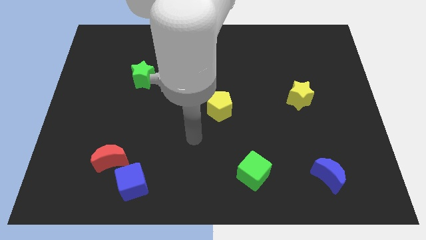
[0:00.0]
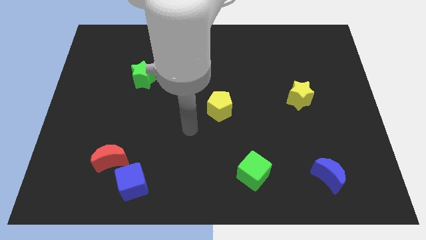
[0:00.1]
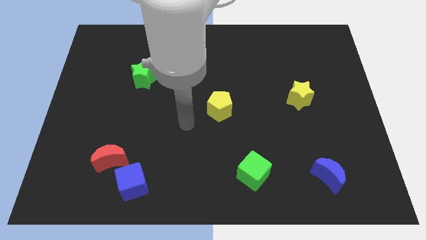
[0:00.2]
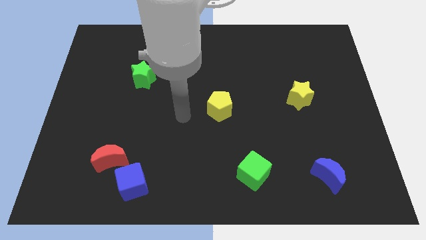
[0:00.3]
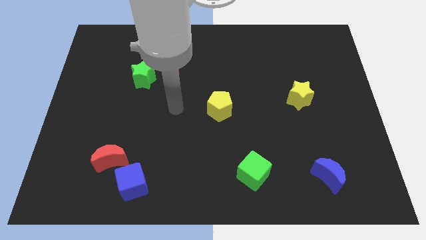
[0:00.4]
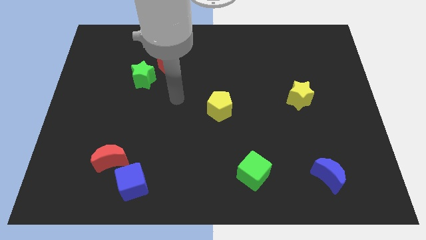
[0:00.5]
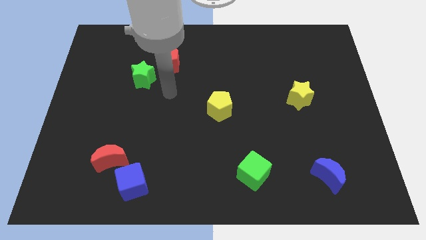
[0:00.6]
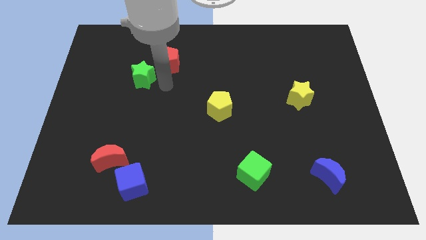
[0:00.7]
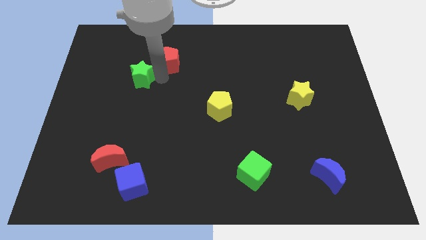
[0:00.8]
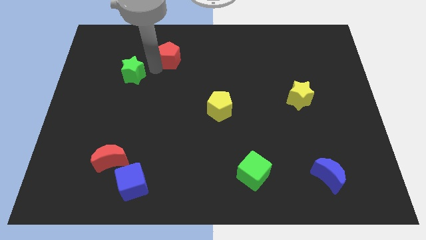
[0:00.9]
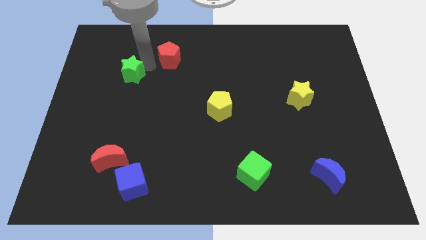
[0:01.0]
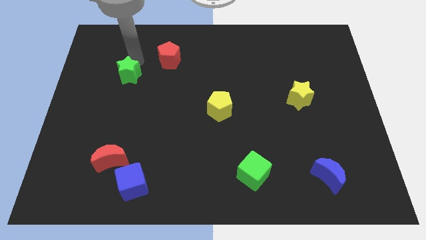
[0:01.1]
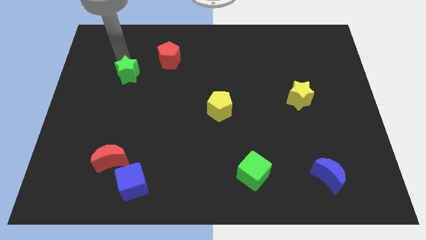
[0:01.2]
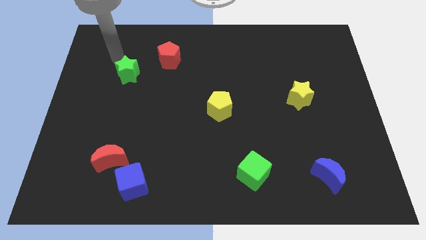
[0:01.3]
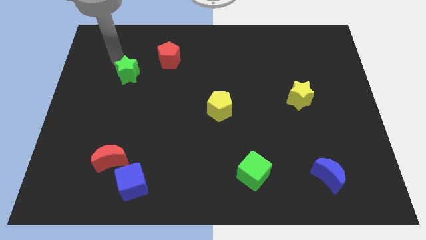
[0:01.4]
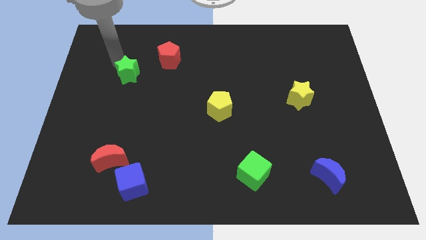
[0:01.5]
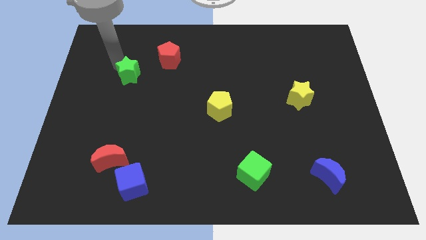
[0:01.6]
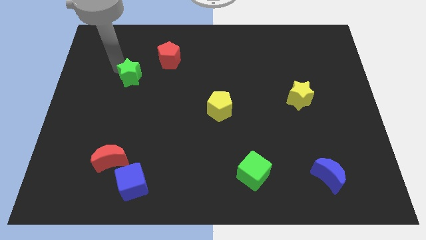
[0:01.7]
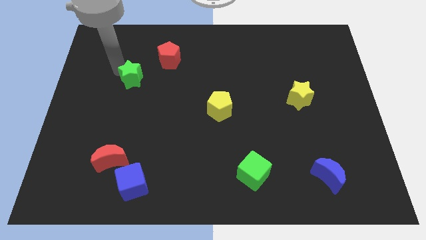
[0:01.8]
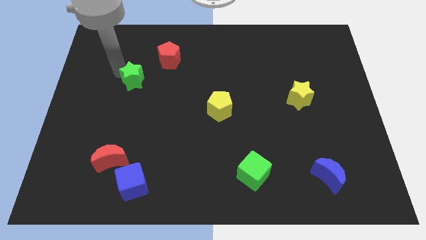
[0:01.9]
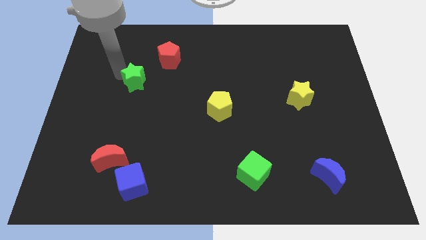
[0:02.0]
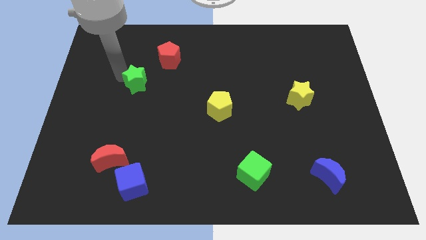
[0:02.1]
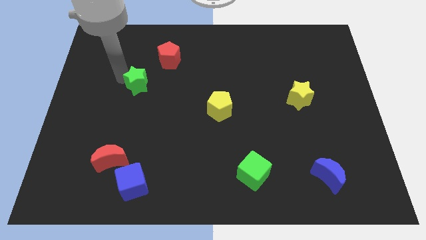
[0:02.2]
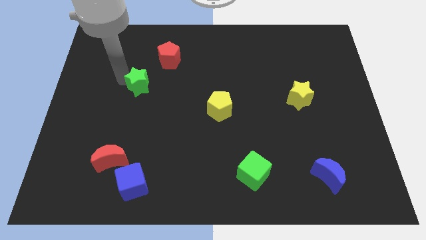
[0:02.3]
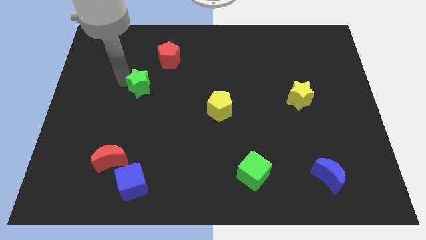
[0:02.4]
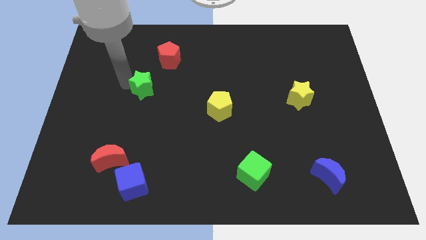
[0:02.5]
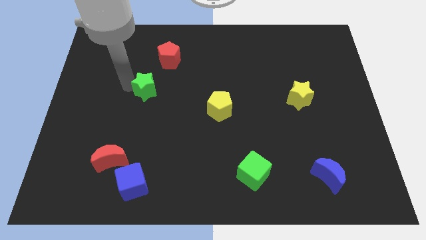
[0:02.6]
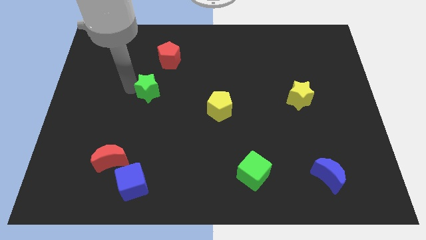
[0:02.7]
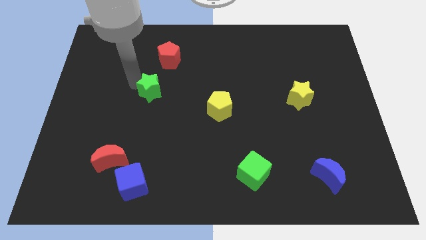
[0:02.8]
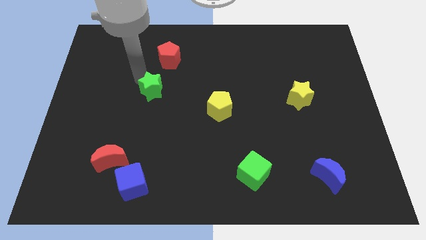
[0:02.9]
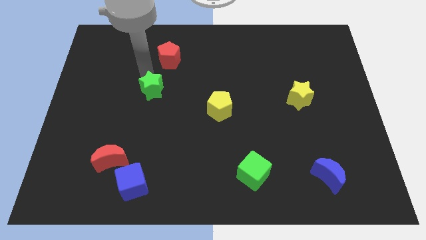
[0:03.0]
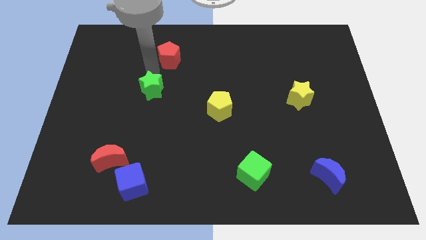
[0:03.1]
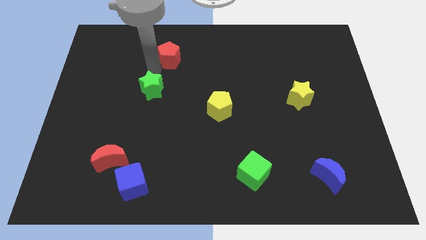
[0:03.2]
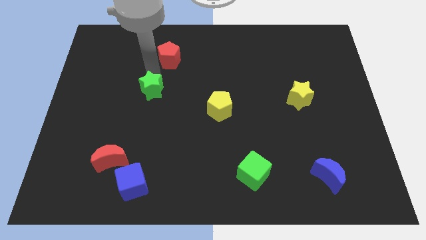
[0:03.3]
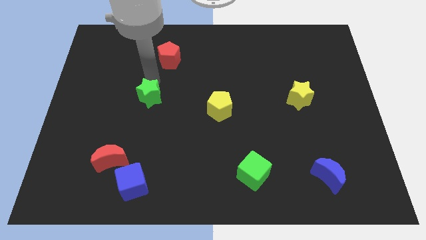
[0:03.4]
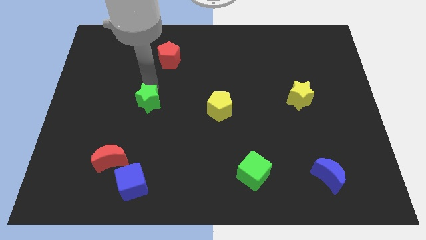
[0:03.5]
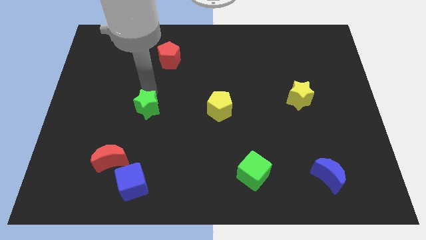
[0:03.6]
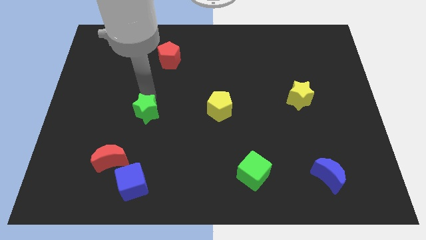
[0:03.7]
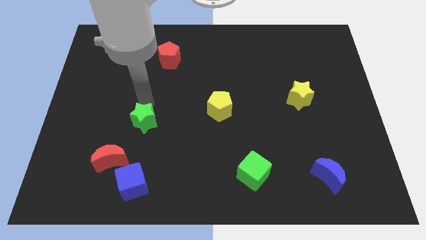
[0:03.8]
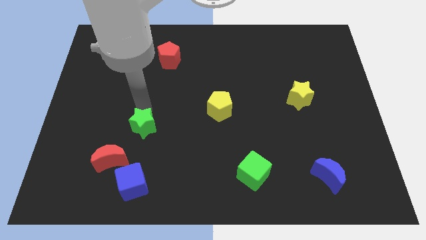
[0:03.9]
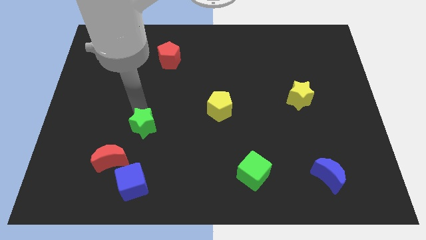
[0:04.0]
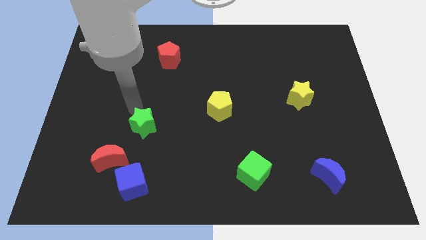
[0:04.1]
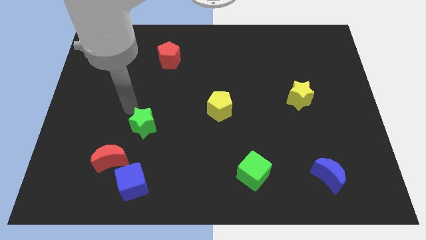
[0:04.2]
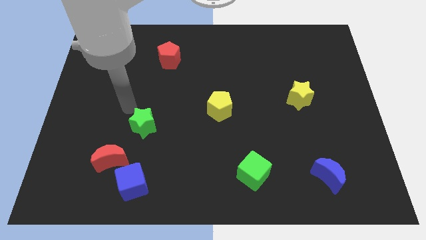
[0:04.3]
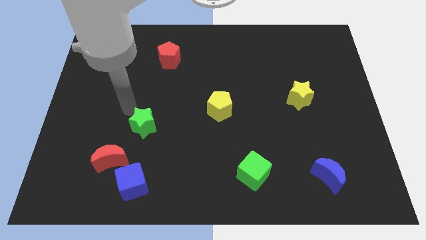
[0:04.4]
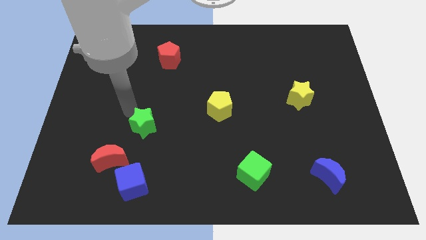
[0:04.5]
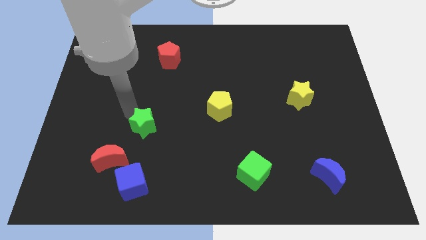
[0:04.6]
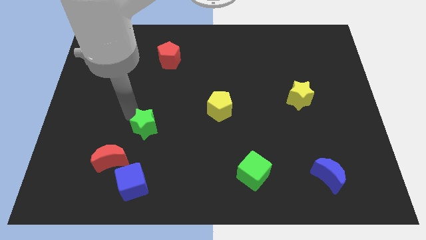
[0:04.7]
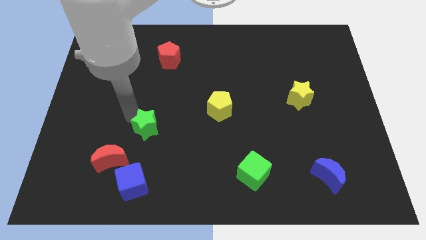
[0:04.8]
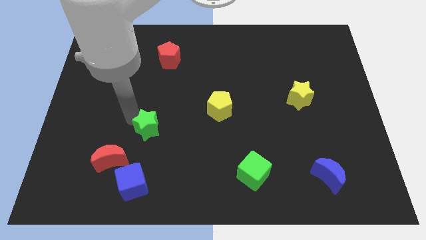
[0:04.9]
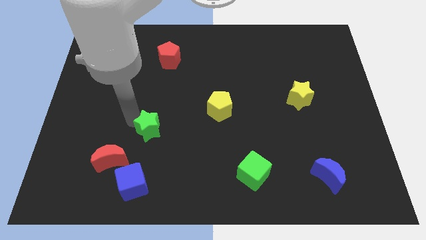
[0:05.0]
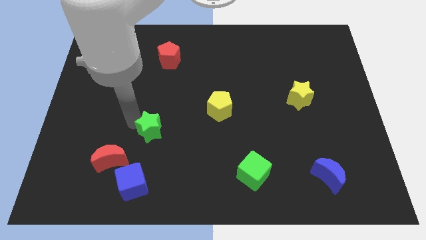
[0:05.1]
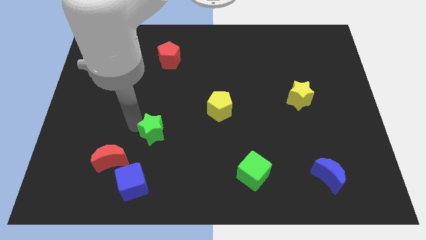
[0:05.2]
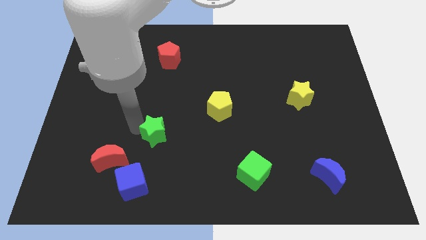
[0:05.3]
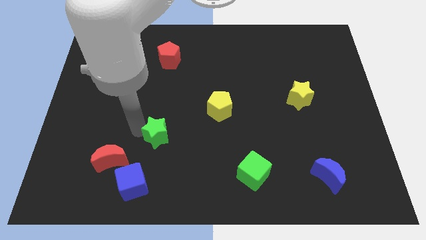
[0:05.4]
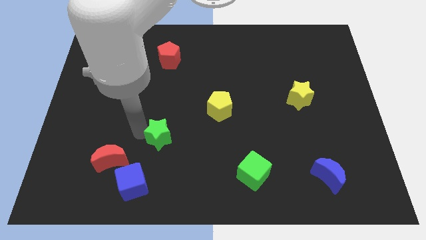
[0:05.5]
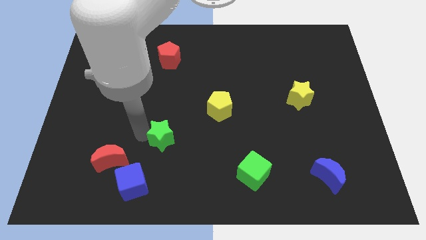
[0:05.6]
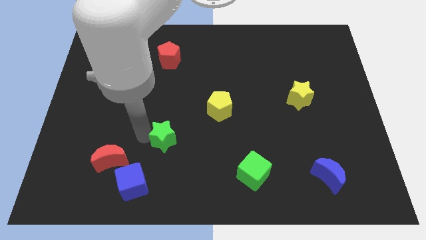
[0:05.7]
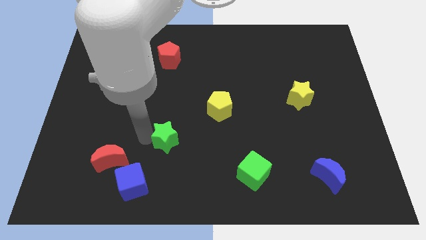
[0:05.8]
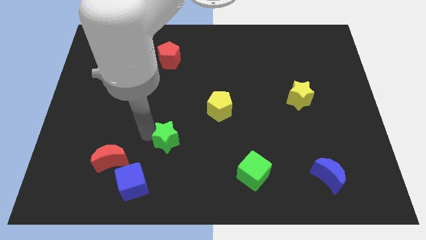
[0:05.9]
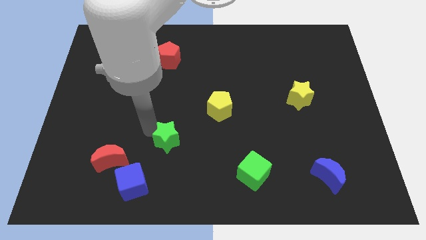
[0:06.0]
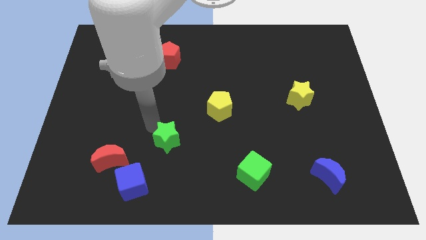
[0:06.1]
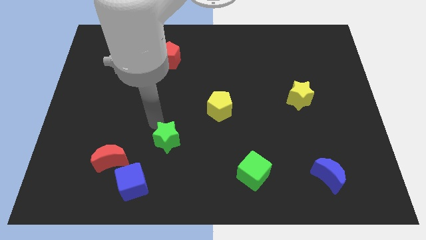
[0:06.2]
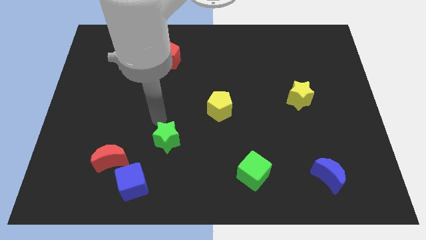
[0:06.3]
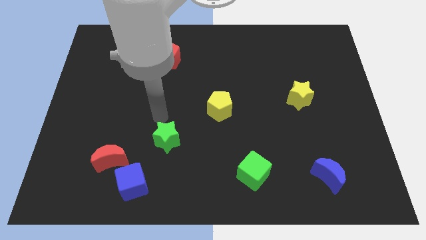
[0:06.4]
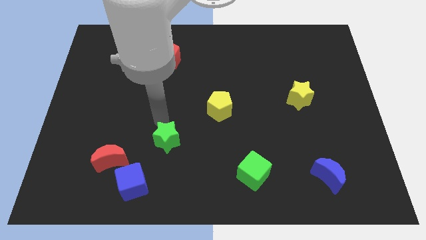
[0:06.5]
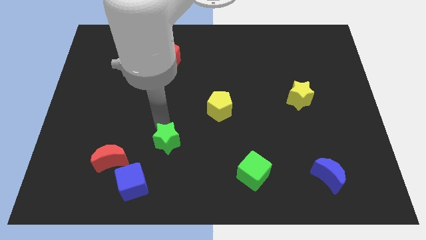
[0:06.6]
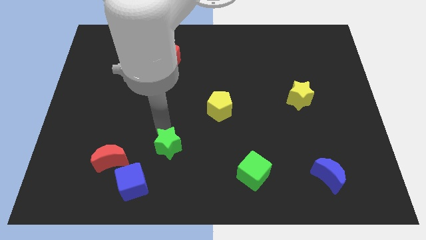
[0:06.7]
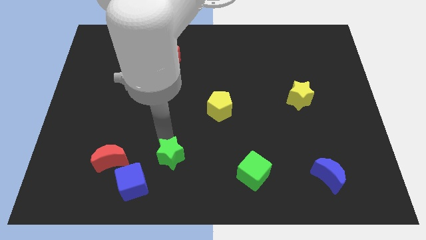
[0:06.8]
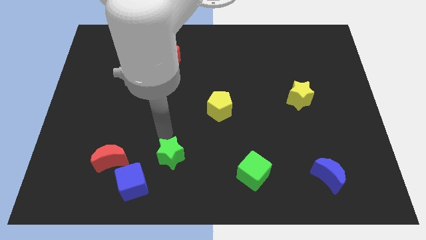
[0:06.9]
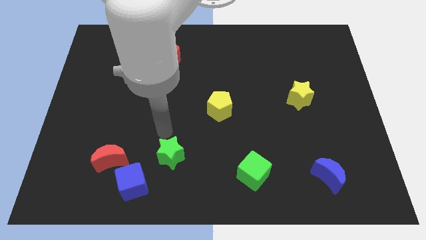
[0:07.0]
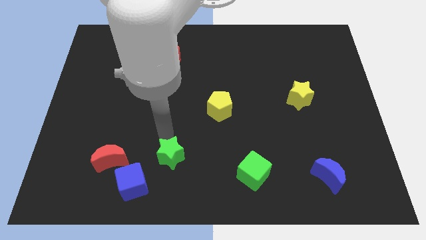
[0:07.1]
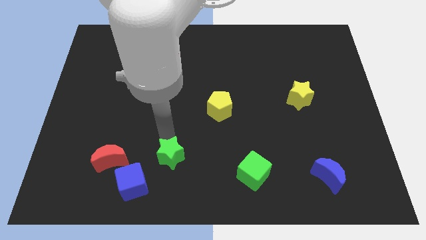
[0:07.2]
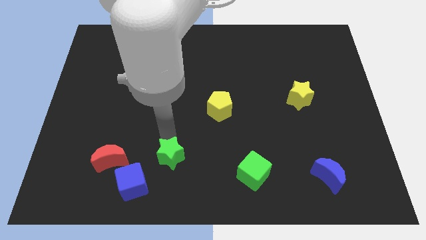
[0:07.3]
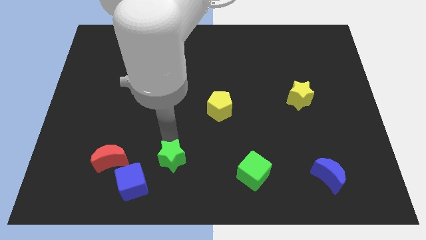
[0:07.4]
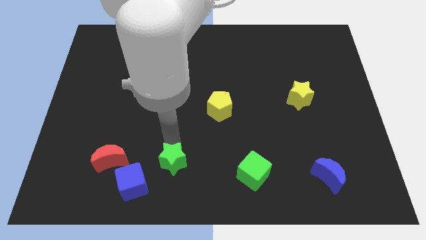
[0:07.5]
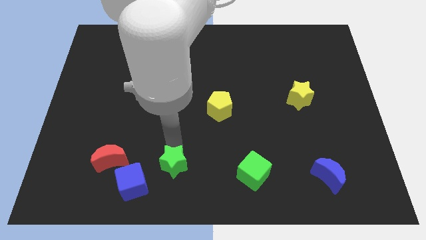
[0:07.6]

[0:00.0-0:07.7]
move the green star to the bottom
